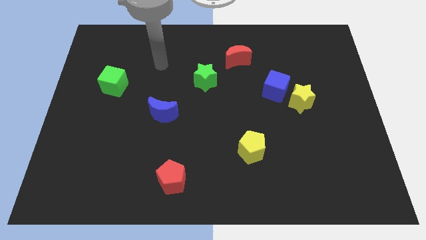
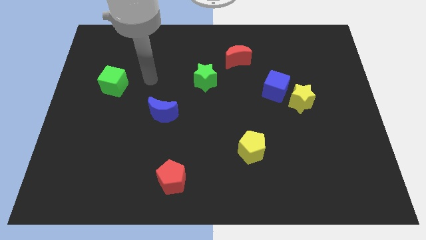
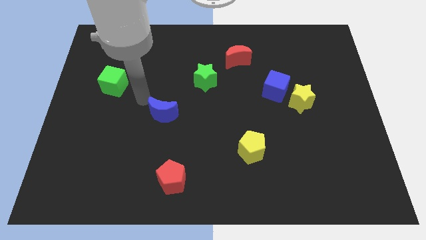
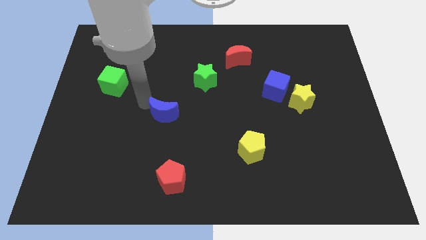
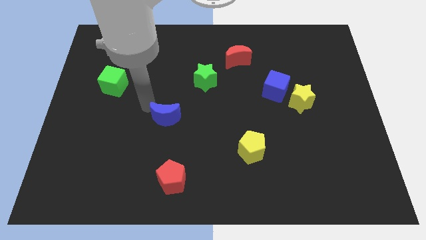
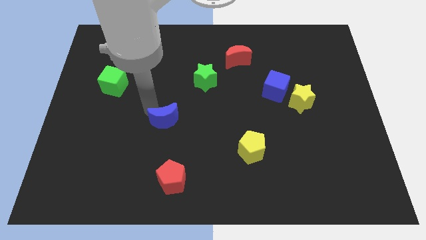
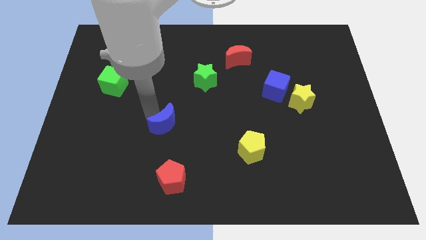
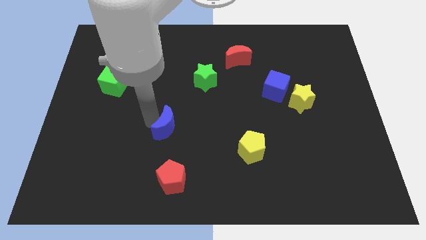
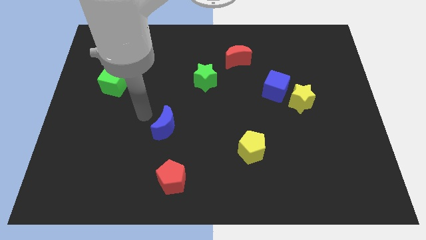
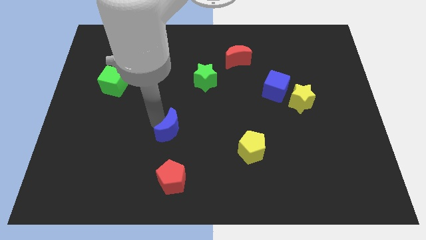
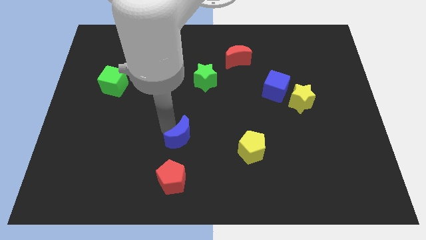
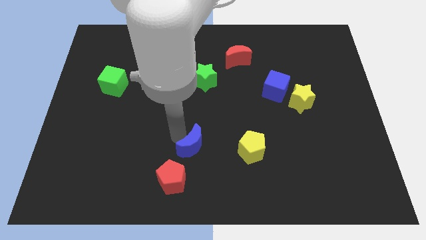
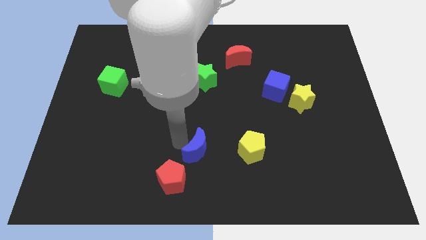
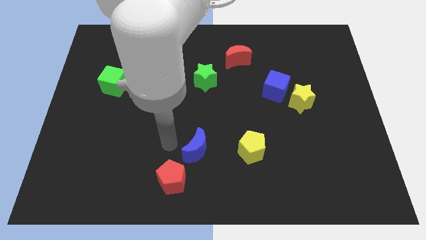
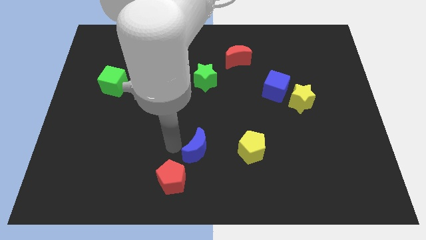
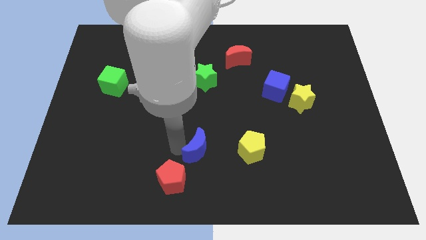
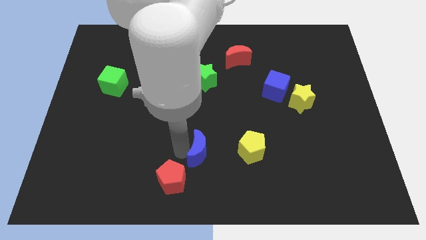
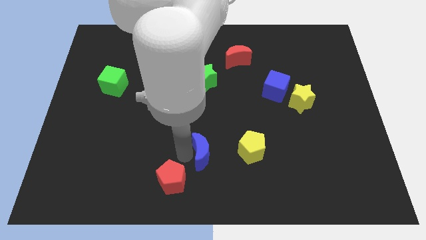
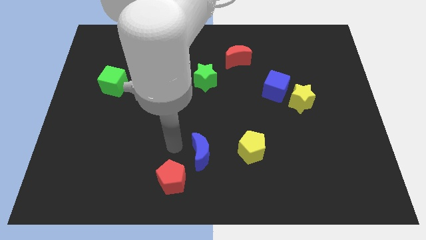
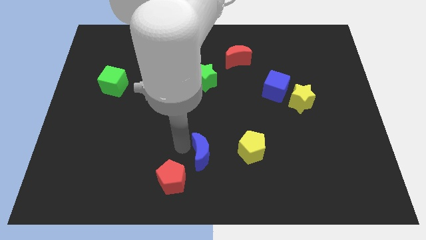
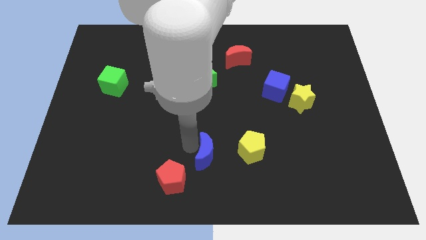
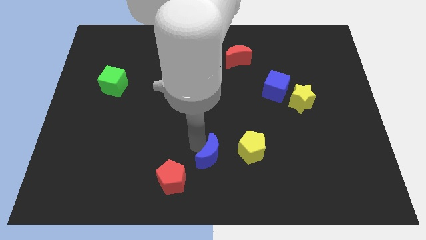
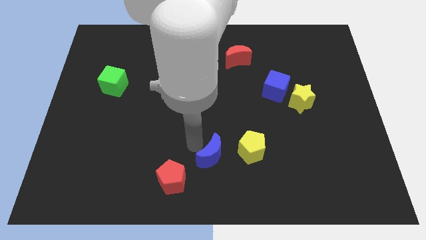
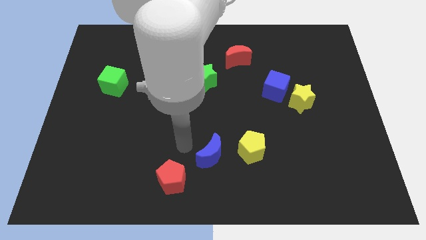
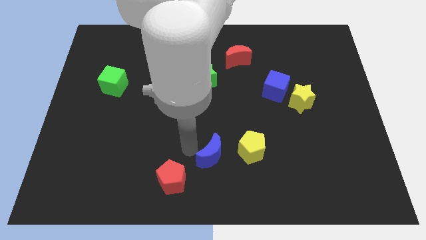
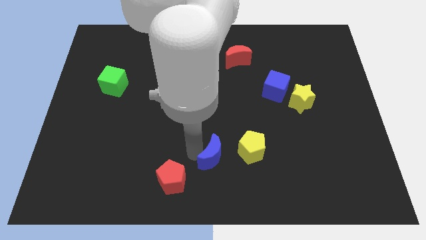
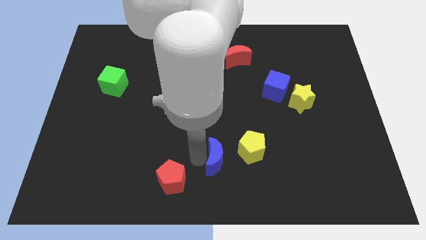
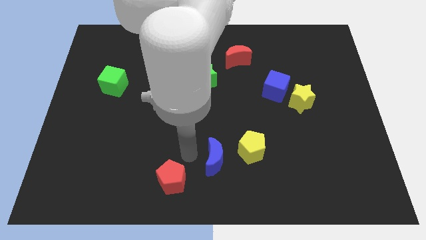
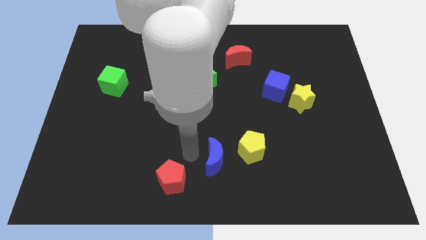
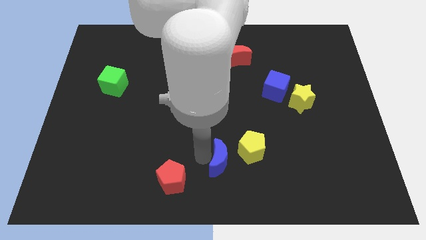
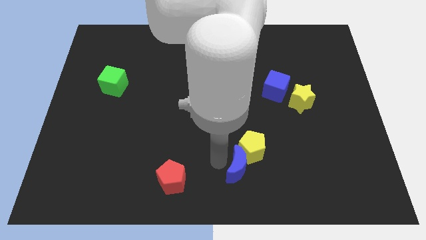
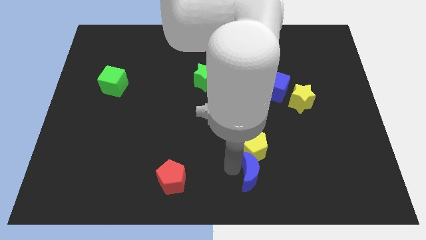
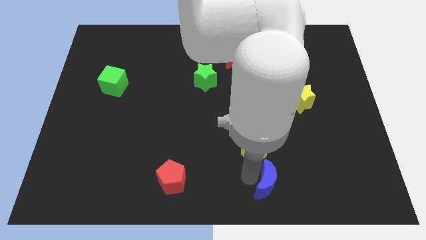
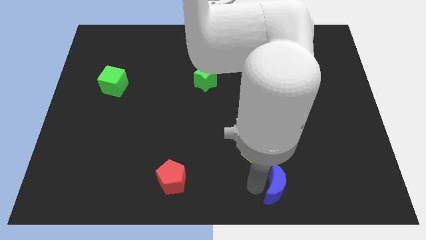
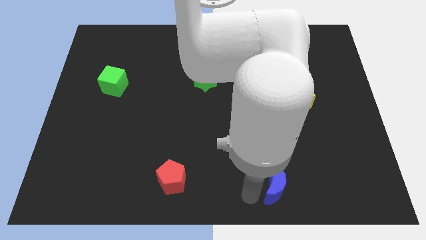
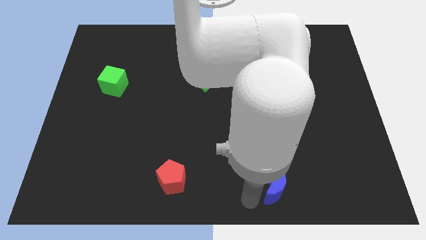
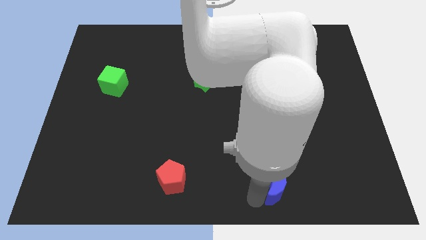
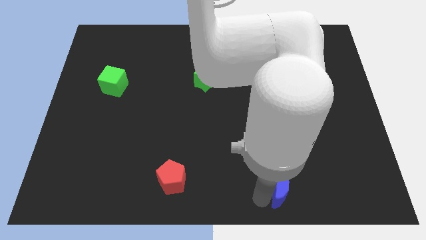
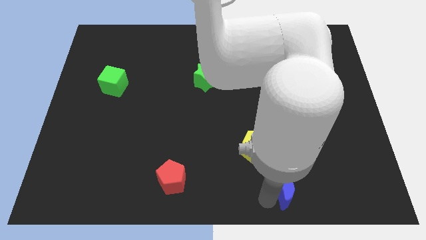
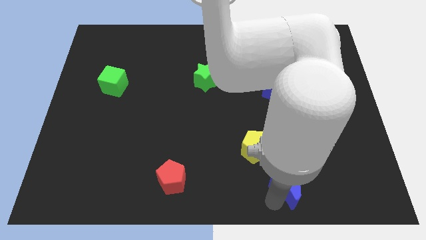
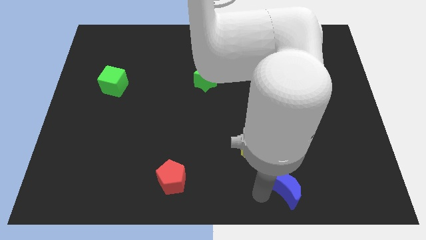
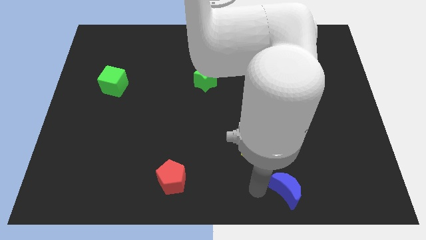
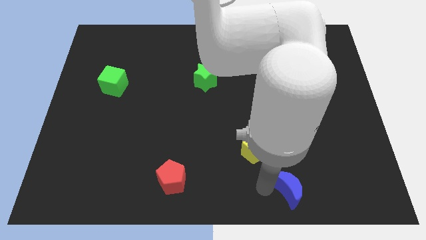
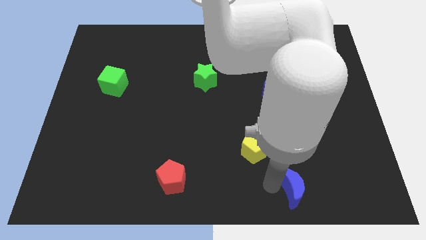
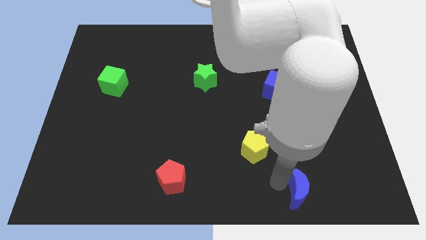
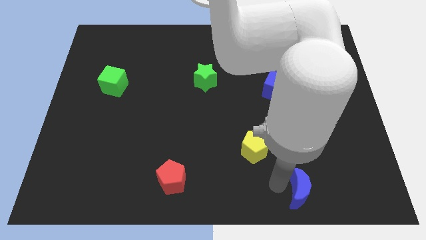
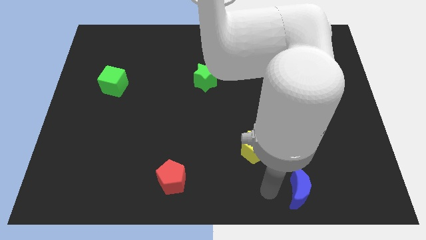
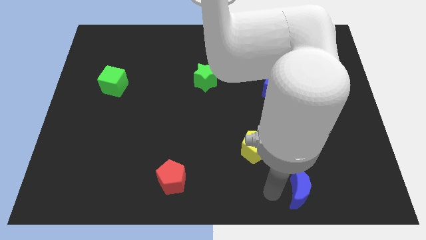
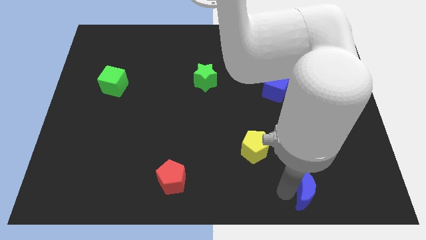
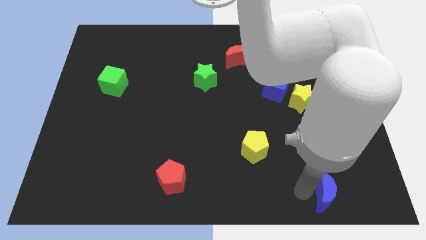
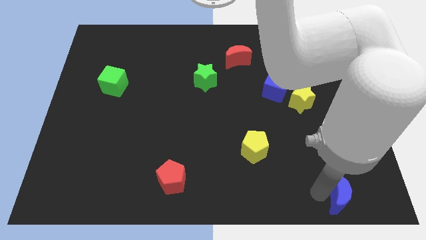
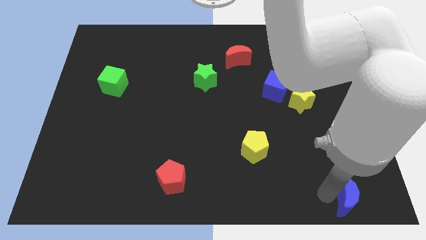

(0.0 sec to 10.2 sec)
slide the blue moon to the bottom right
